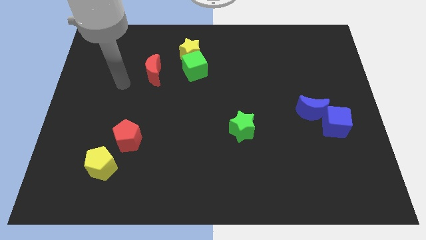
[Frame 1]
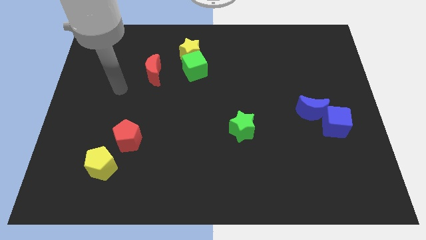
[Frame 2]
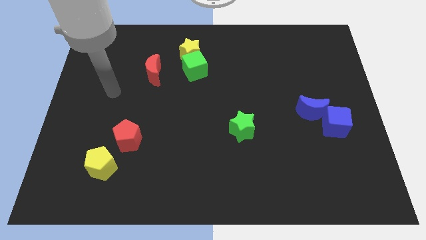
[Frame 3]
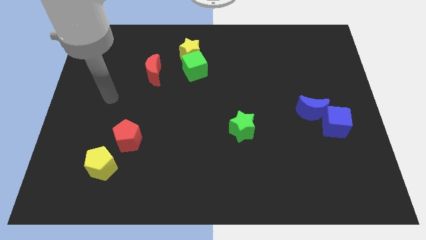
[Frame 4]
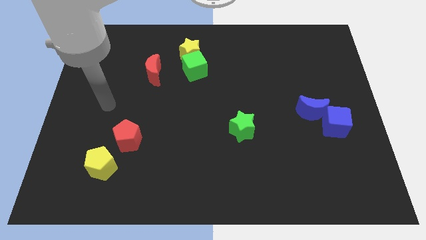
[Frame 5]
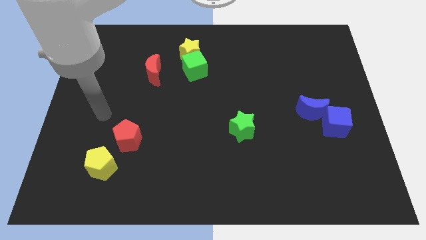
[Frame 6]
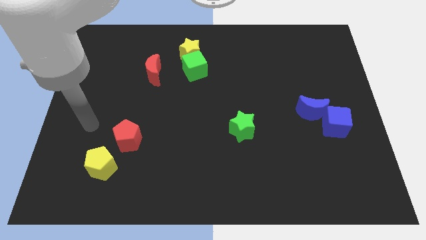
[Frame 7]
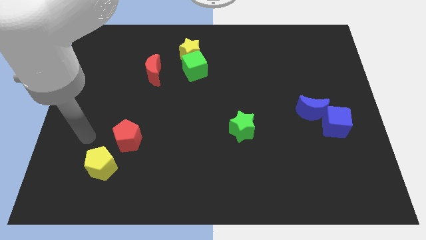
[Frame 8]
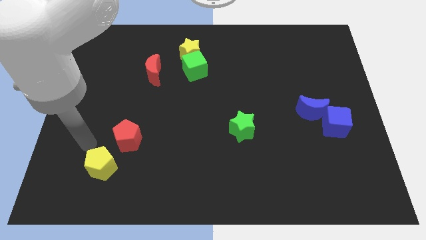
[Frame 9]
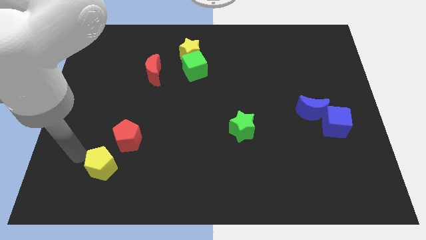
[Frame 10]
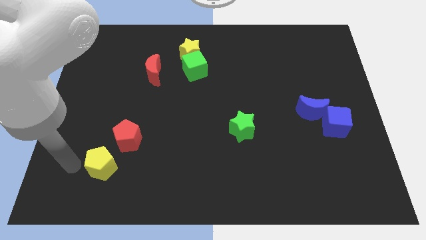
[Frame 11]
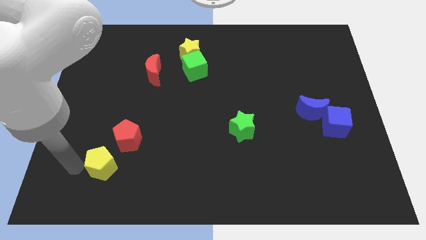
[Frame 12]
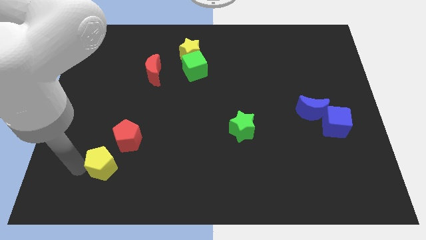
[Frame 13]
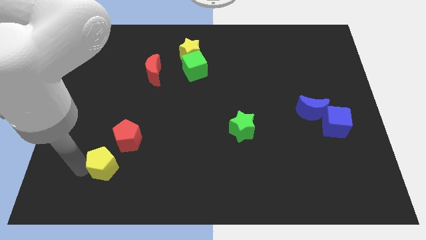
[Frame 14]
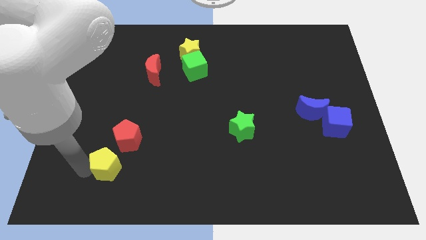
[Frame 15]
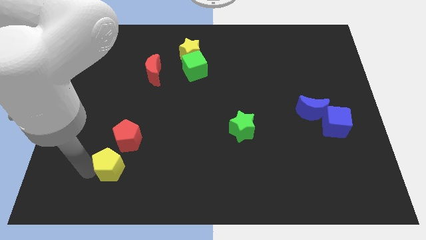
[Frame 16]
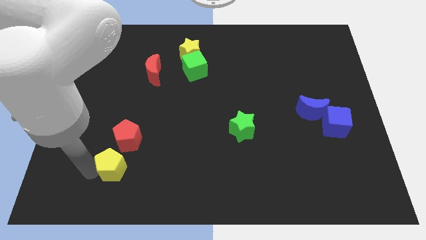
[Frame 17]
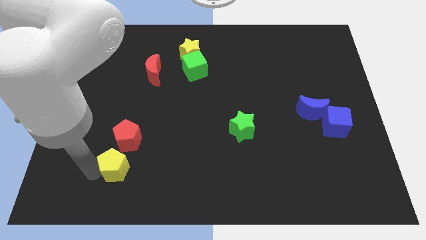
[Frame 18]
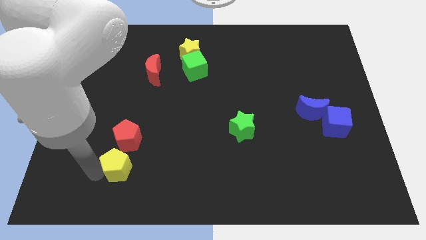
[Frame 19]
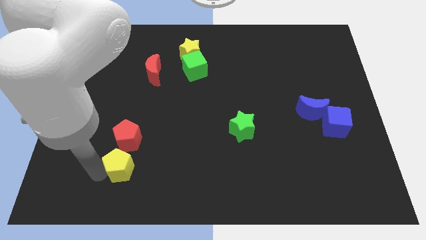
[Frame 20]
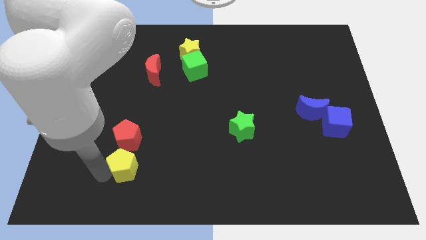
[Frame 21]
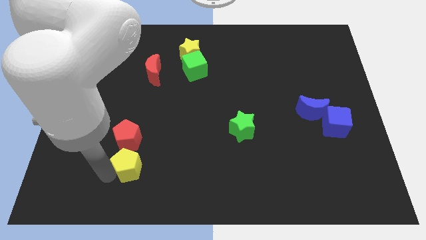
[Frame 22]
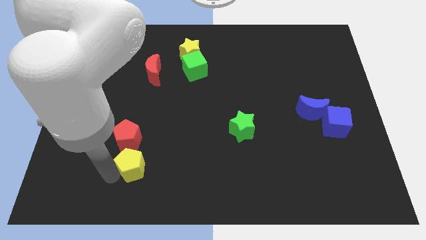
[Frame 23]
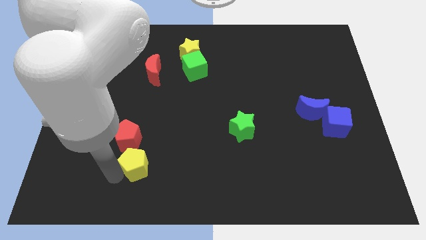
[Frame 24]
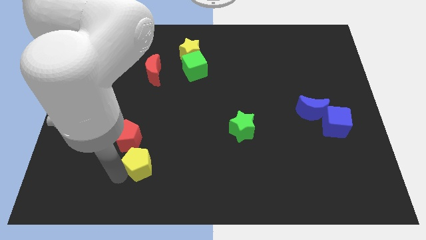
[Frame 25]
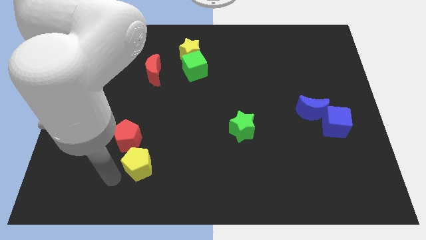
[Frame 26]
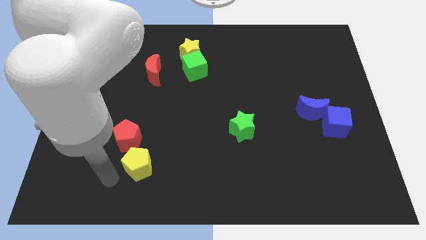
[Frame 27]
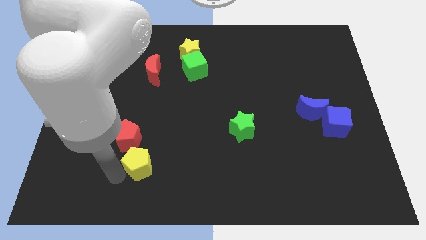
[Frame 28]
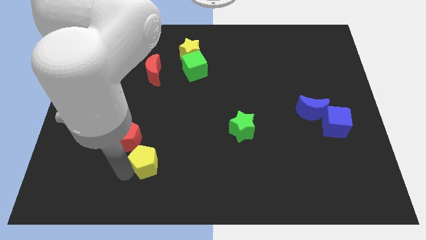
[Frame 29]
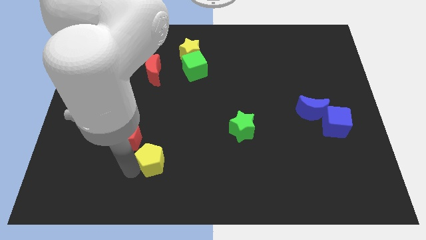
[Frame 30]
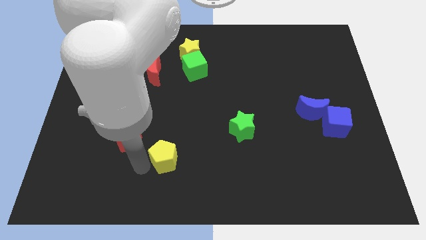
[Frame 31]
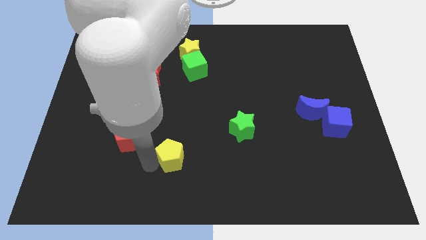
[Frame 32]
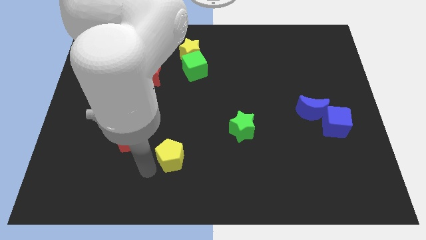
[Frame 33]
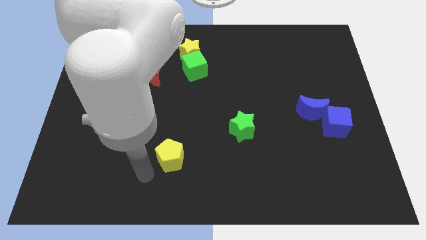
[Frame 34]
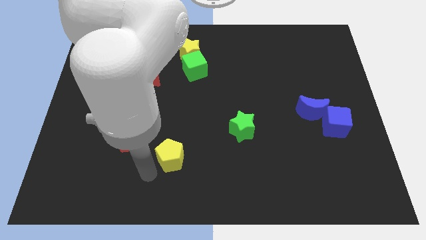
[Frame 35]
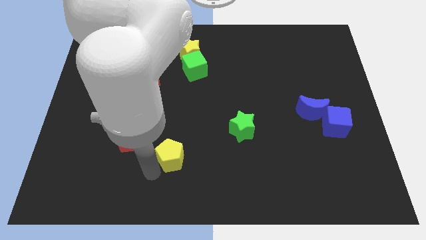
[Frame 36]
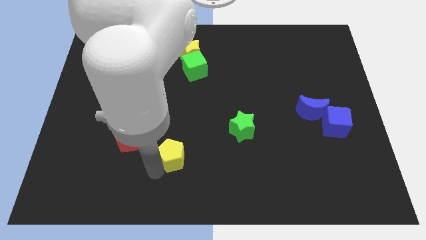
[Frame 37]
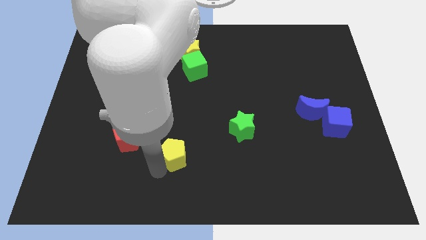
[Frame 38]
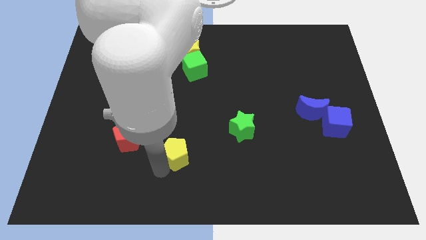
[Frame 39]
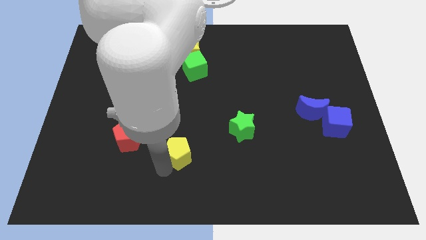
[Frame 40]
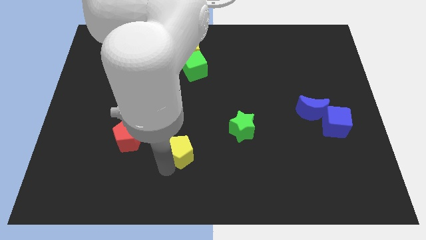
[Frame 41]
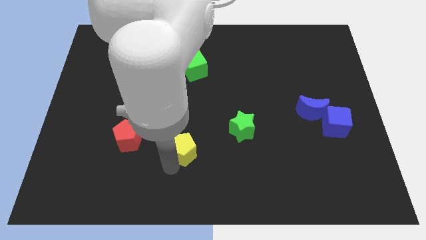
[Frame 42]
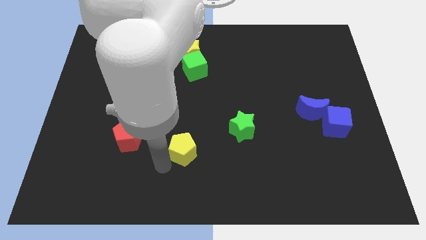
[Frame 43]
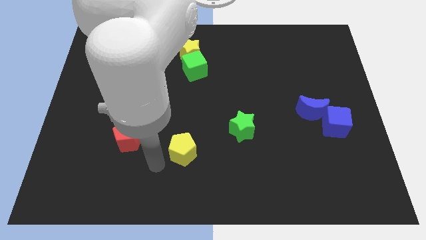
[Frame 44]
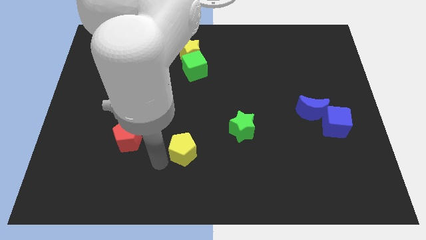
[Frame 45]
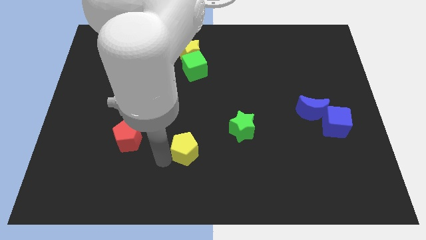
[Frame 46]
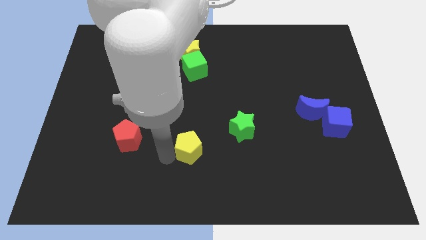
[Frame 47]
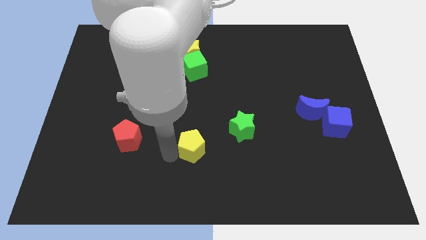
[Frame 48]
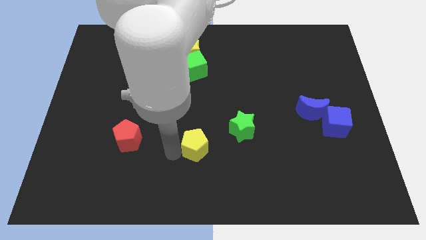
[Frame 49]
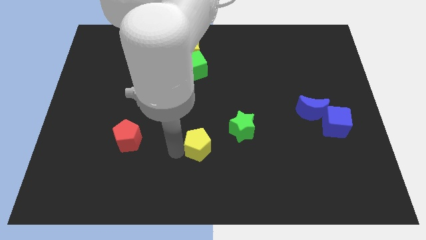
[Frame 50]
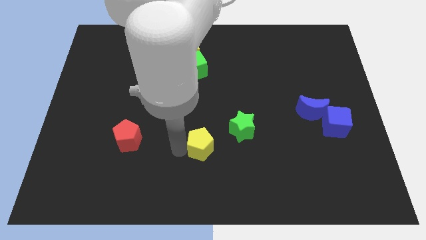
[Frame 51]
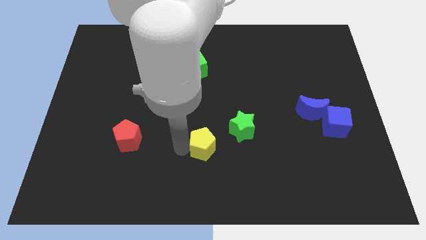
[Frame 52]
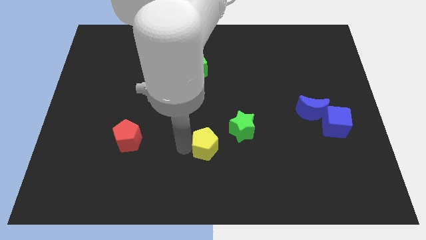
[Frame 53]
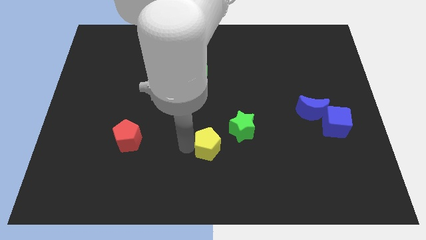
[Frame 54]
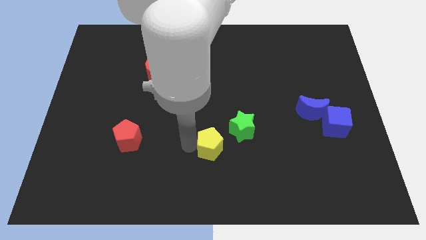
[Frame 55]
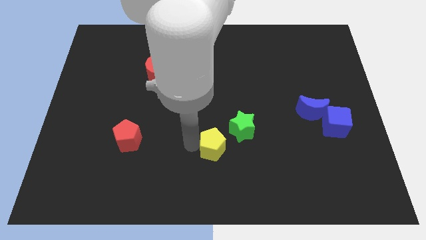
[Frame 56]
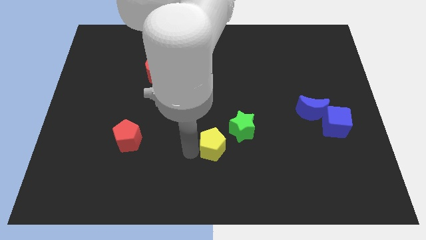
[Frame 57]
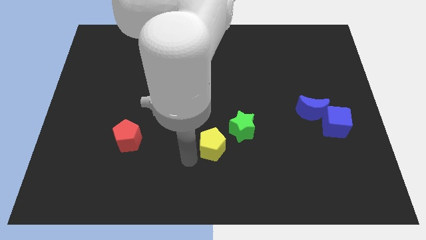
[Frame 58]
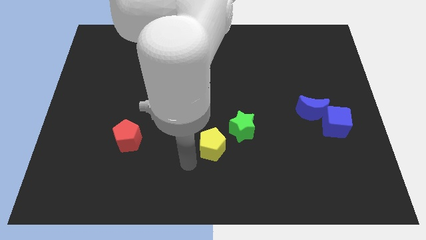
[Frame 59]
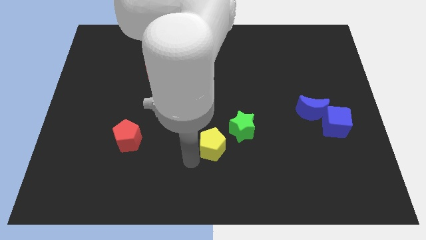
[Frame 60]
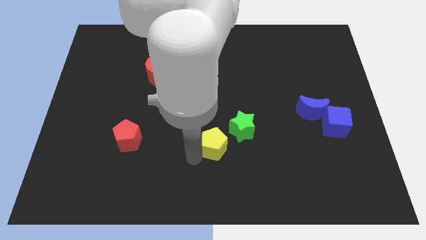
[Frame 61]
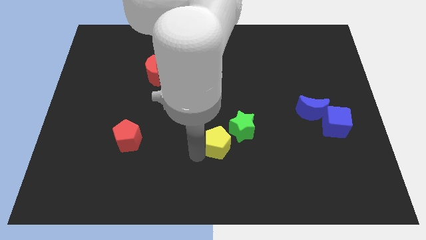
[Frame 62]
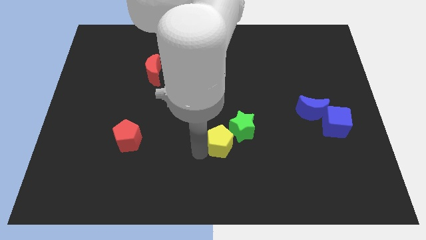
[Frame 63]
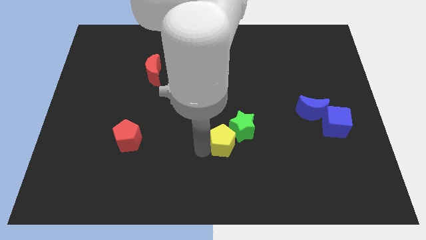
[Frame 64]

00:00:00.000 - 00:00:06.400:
move the yellow pentagon towards the green star
